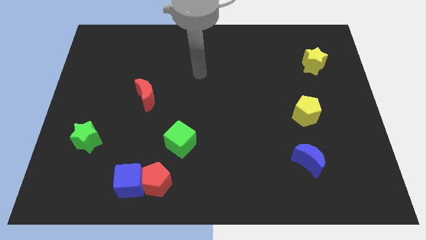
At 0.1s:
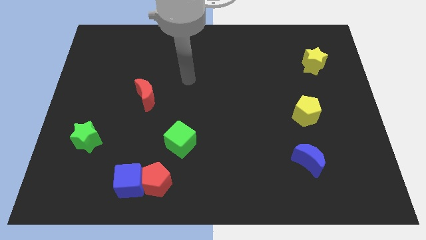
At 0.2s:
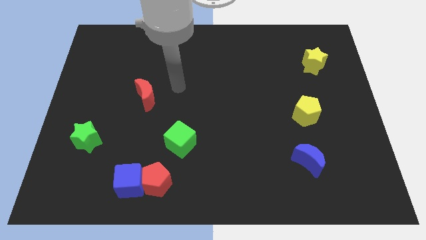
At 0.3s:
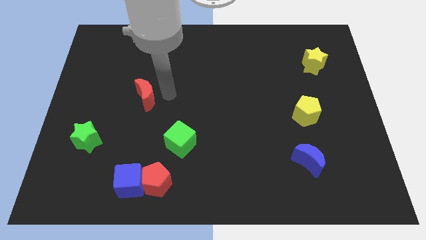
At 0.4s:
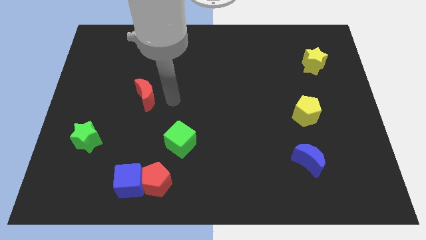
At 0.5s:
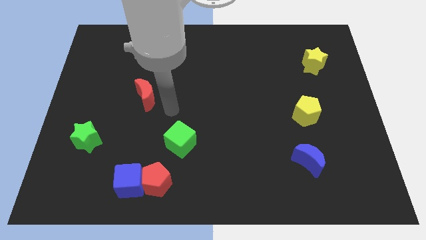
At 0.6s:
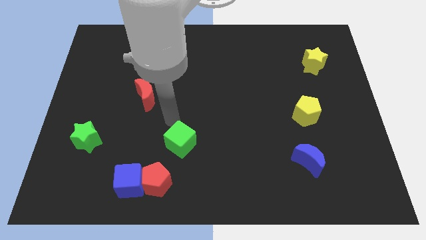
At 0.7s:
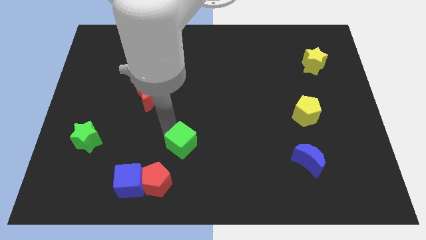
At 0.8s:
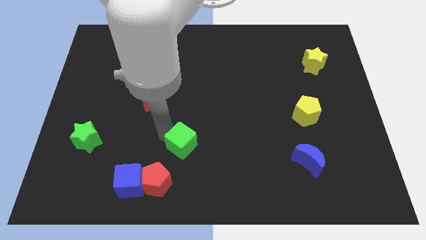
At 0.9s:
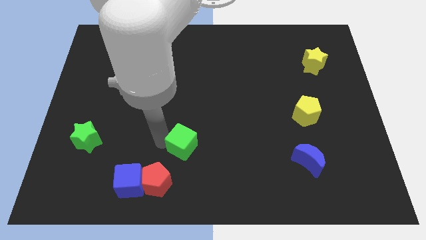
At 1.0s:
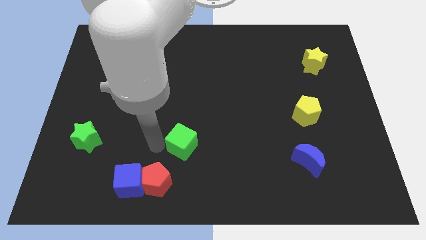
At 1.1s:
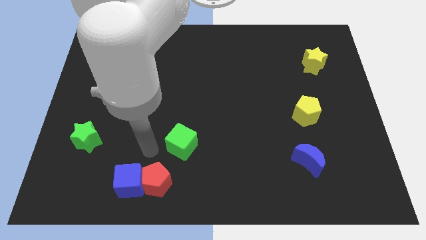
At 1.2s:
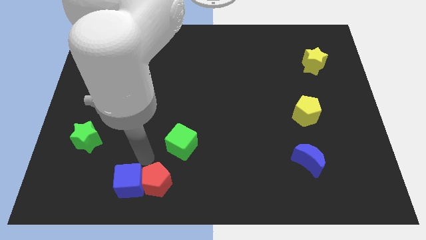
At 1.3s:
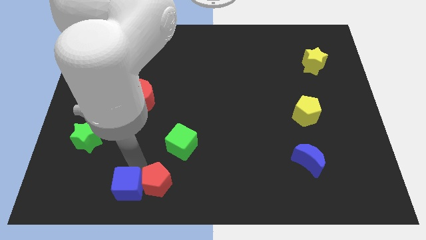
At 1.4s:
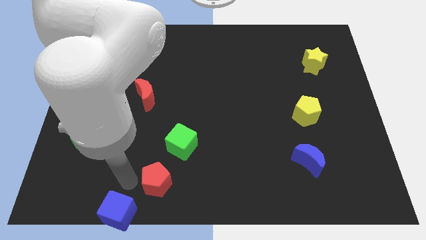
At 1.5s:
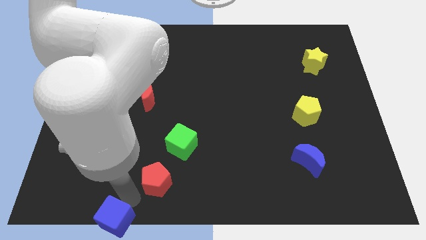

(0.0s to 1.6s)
pull the red pentagon apart from the blue cube

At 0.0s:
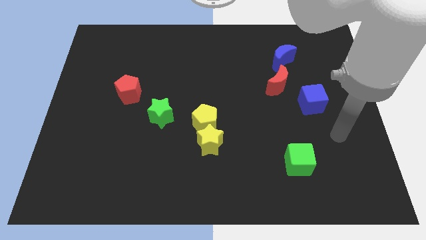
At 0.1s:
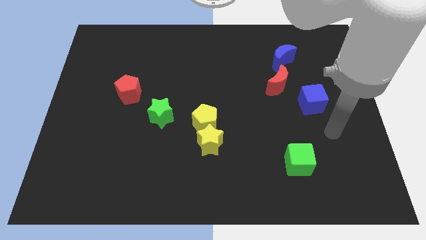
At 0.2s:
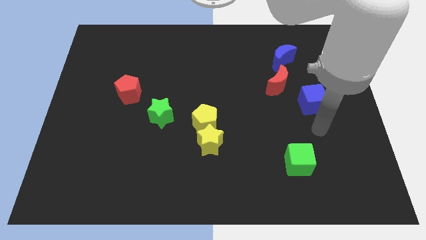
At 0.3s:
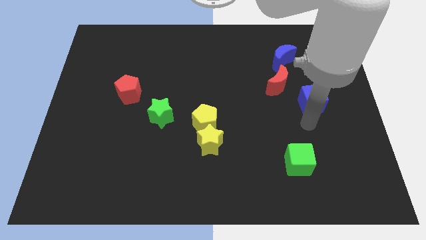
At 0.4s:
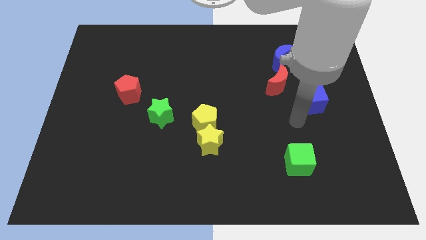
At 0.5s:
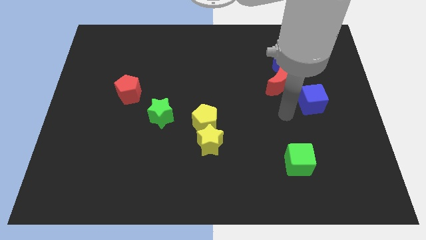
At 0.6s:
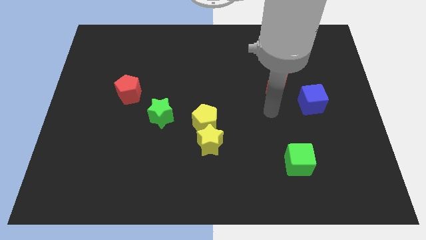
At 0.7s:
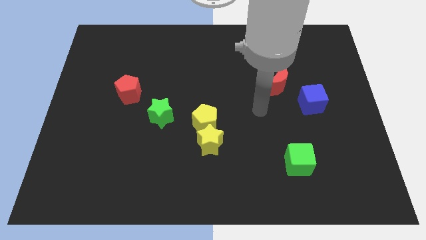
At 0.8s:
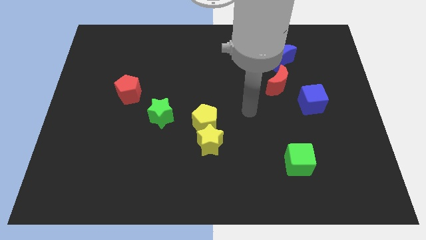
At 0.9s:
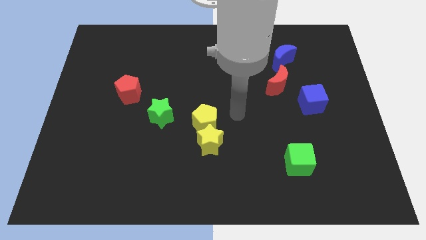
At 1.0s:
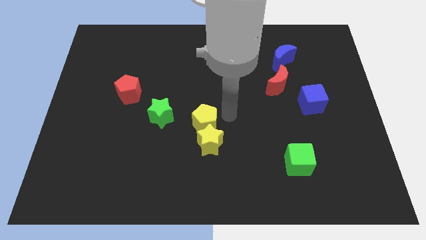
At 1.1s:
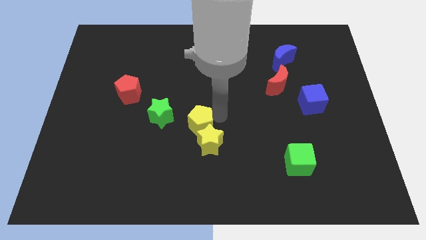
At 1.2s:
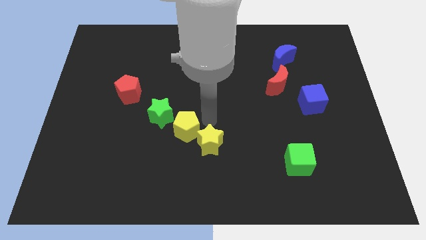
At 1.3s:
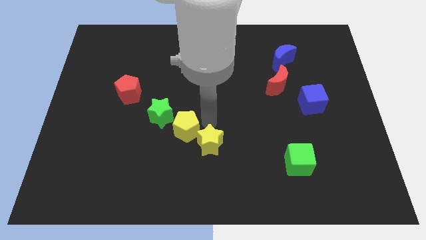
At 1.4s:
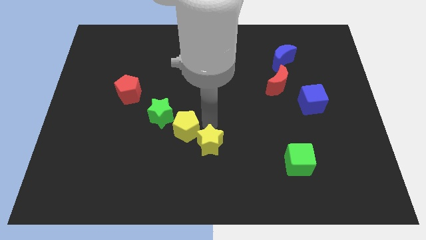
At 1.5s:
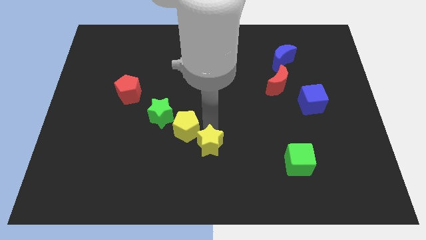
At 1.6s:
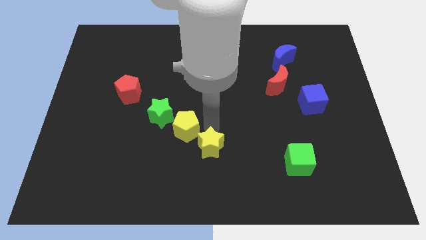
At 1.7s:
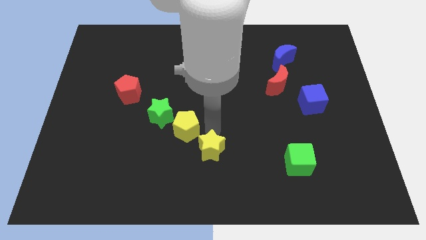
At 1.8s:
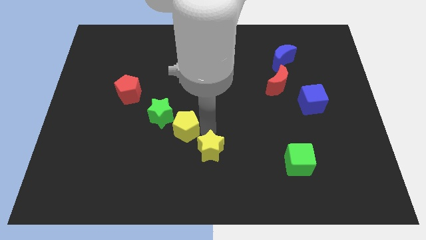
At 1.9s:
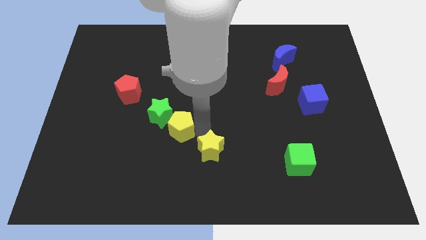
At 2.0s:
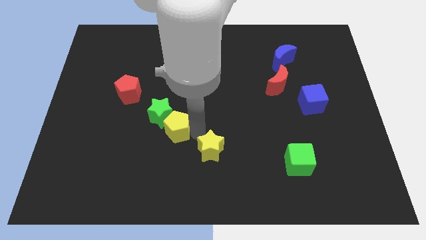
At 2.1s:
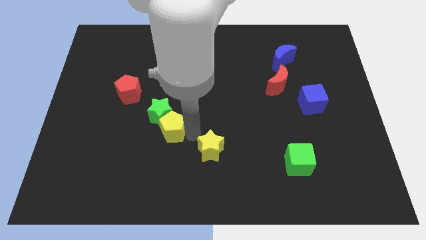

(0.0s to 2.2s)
move the yellow star away from the yellow pentagon

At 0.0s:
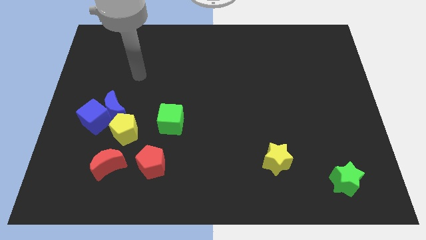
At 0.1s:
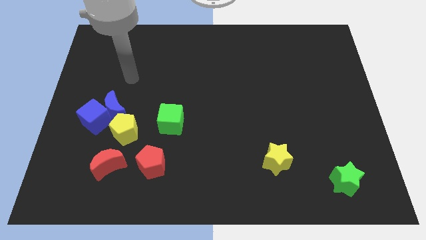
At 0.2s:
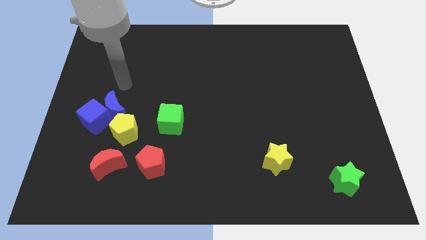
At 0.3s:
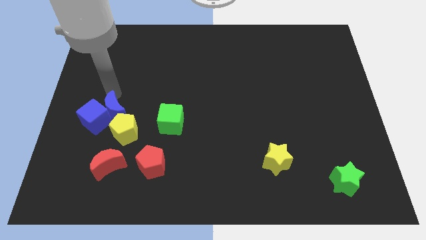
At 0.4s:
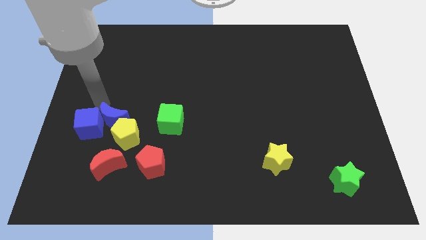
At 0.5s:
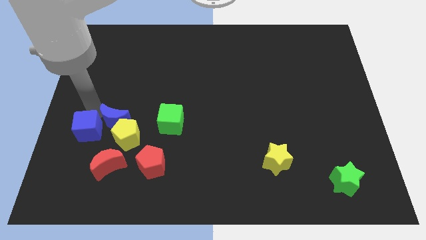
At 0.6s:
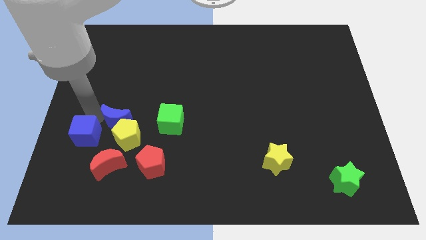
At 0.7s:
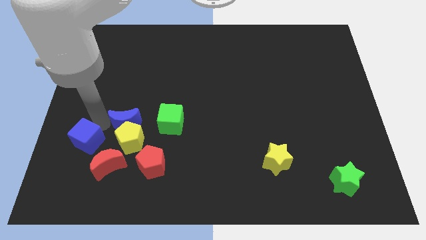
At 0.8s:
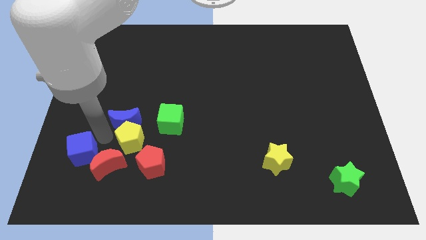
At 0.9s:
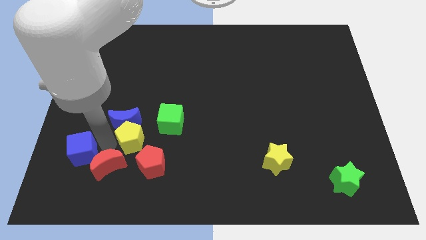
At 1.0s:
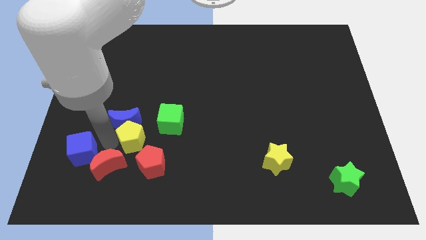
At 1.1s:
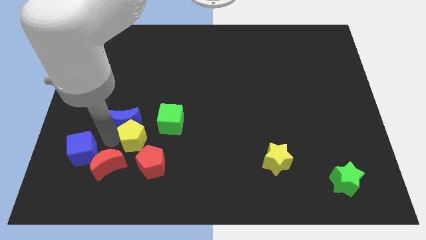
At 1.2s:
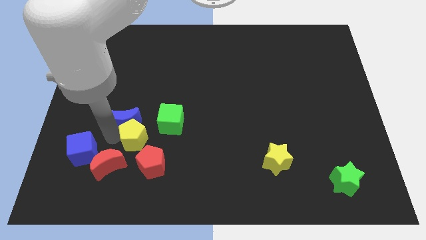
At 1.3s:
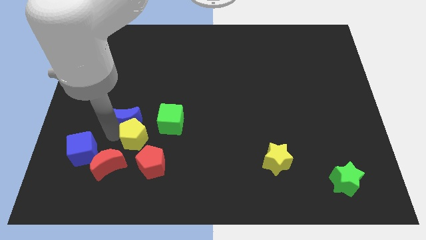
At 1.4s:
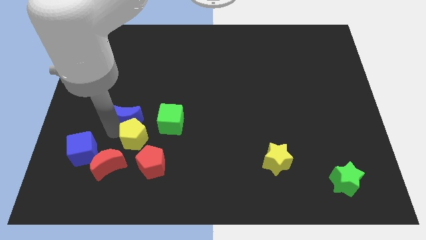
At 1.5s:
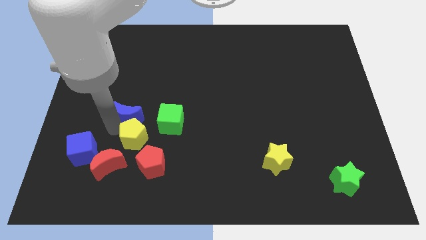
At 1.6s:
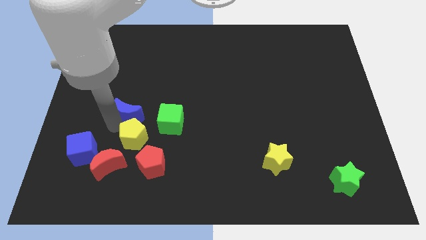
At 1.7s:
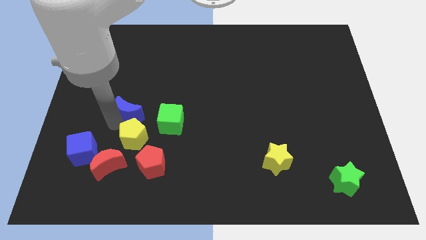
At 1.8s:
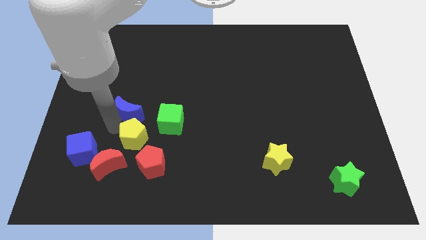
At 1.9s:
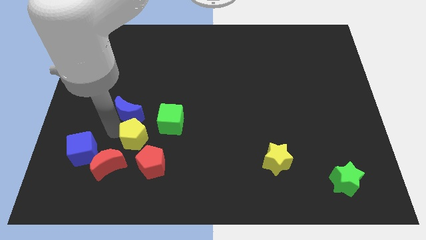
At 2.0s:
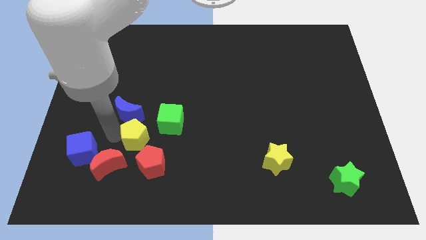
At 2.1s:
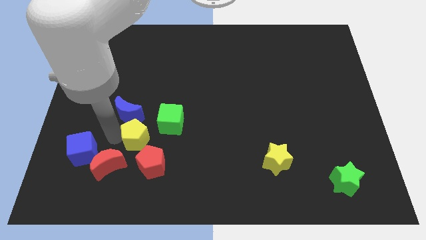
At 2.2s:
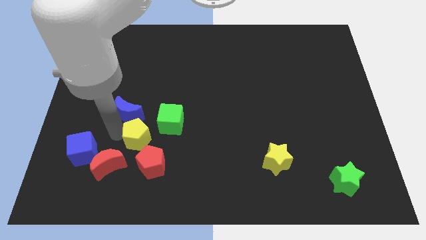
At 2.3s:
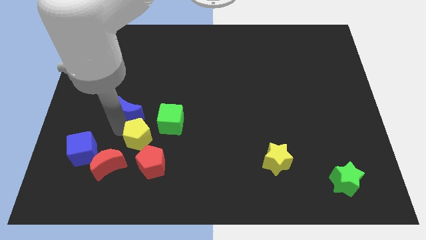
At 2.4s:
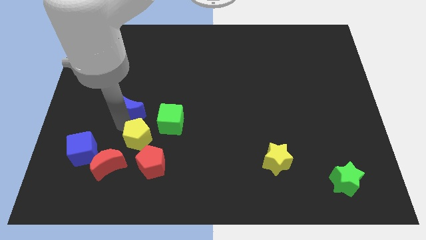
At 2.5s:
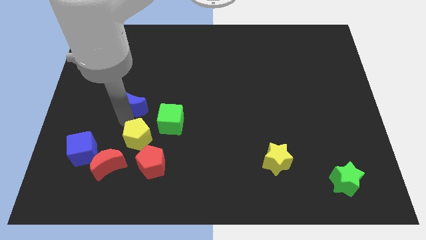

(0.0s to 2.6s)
separate the blue moon from the blue cube and yellow pentagon

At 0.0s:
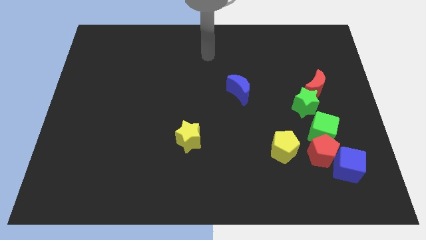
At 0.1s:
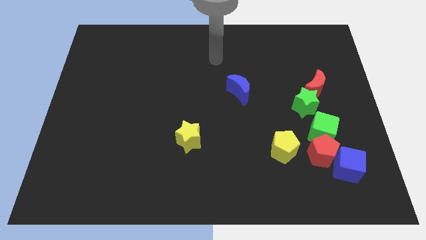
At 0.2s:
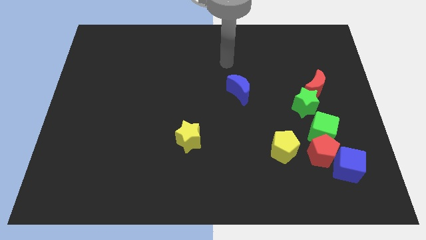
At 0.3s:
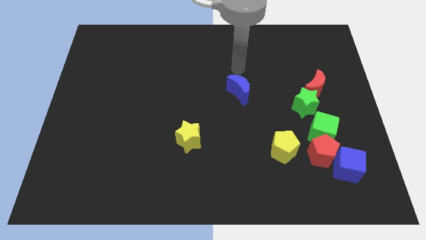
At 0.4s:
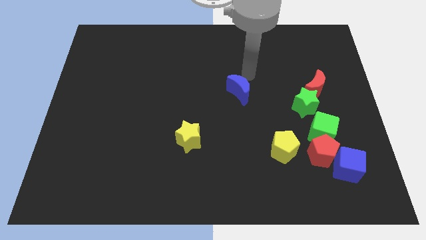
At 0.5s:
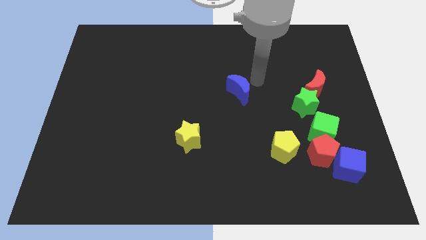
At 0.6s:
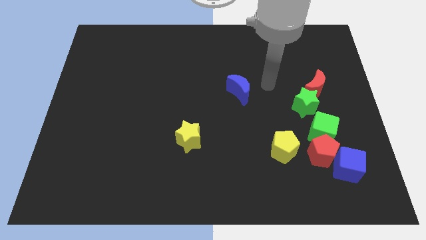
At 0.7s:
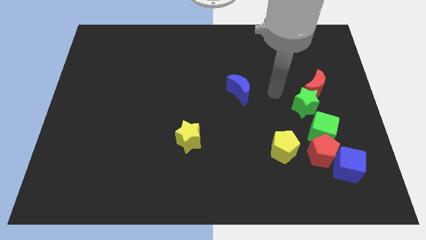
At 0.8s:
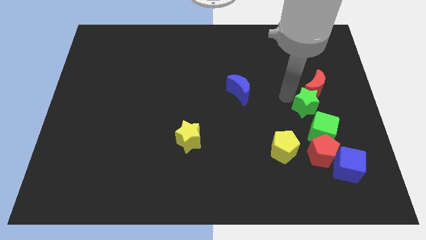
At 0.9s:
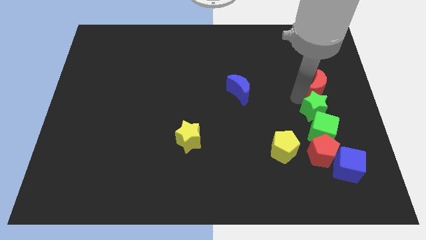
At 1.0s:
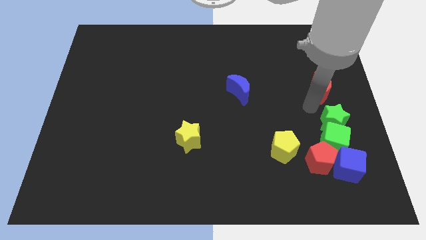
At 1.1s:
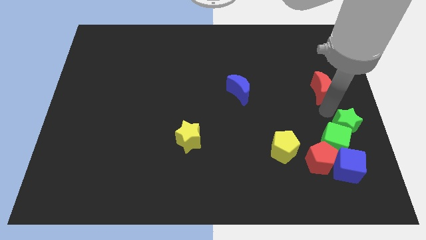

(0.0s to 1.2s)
pull the red moon apart from the green star

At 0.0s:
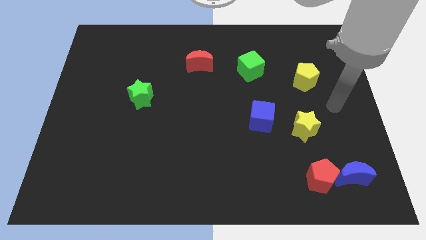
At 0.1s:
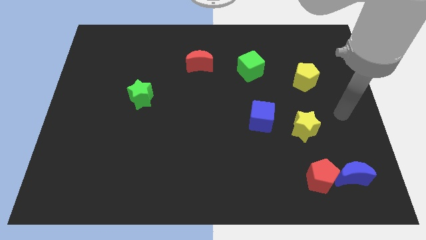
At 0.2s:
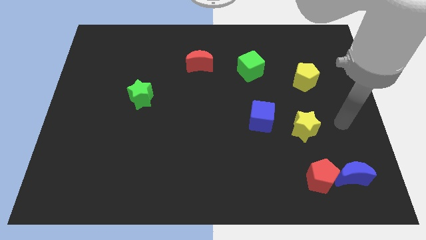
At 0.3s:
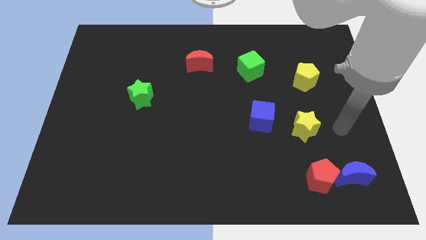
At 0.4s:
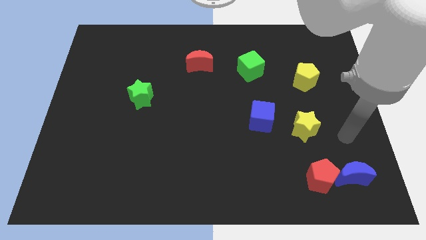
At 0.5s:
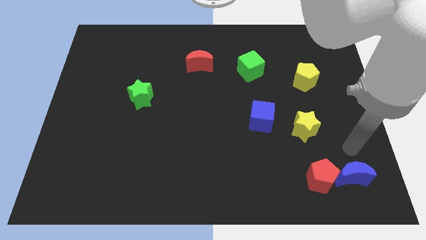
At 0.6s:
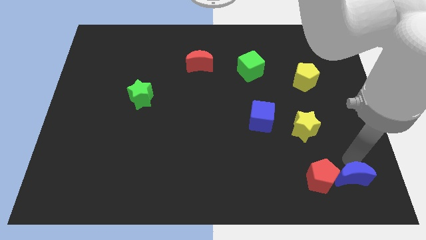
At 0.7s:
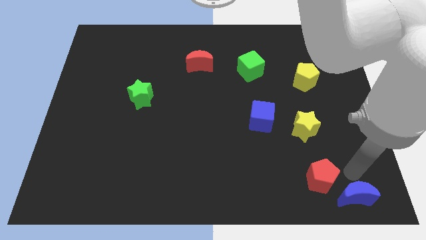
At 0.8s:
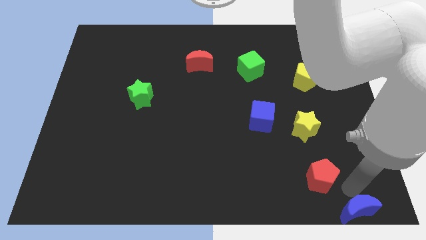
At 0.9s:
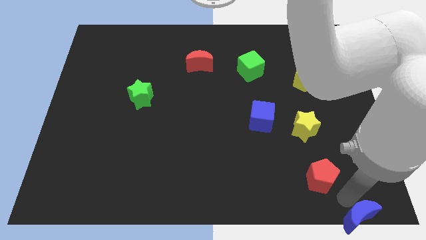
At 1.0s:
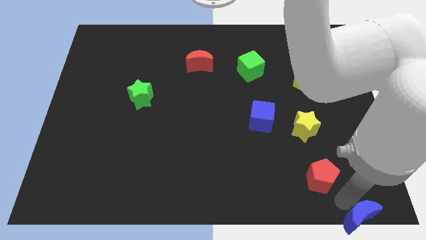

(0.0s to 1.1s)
separate the red pentagon from the blue moon

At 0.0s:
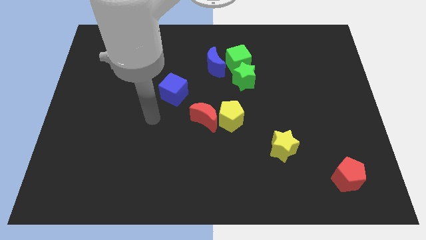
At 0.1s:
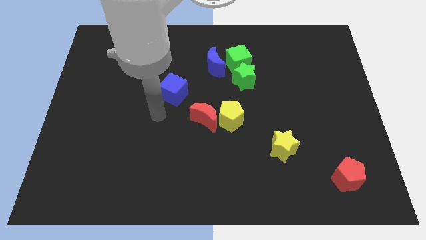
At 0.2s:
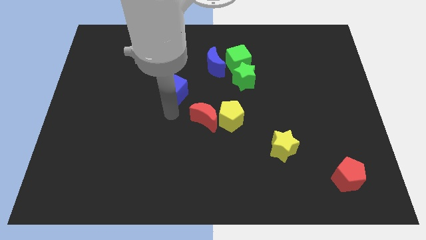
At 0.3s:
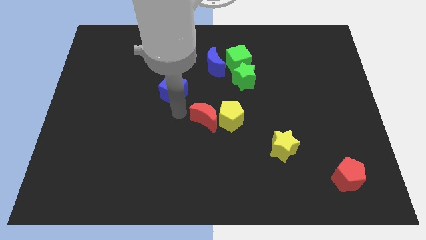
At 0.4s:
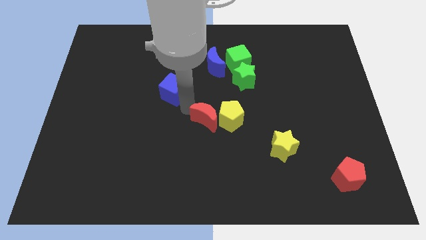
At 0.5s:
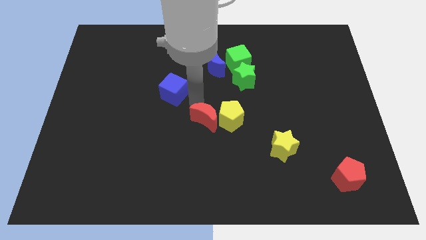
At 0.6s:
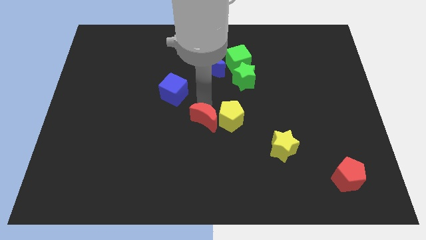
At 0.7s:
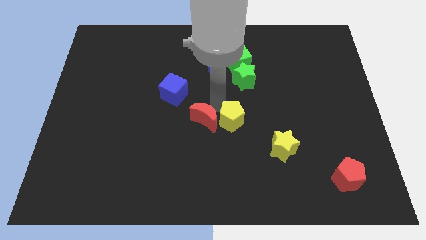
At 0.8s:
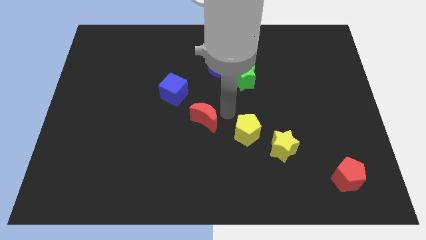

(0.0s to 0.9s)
move the red moon away from the yellow pentagon
